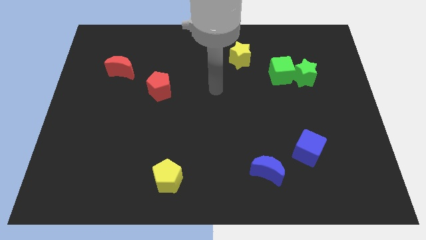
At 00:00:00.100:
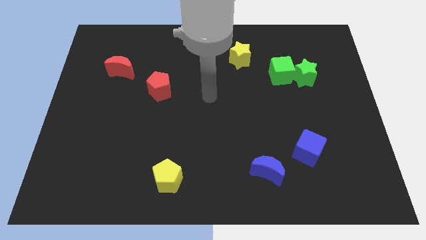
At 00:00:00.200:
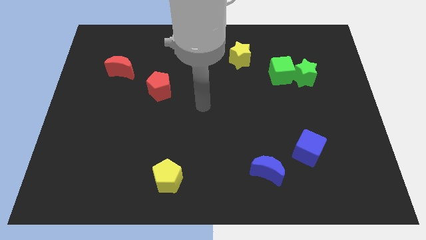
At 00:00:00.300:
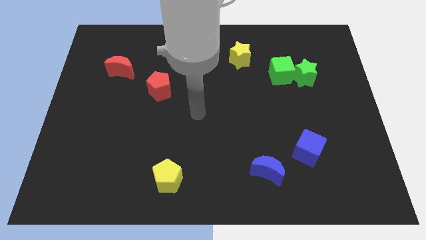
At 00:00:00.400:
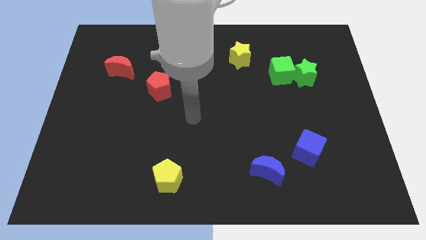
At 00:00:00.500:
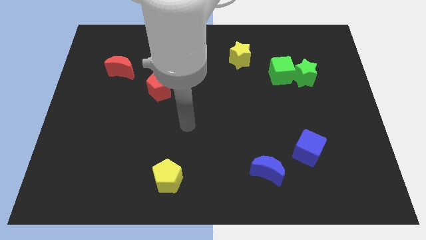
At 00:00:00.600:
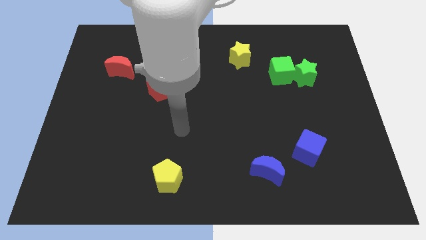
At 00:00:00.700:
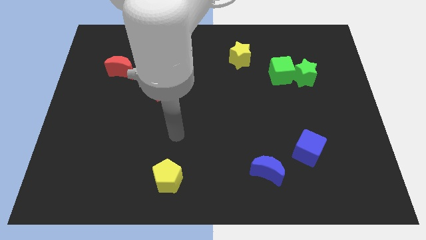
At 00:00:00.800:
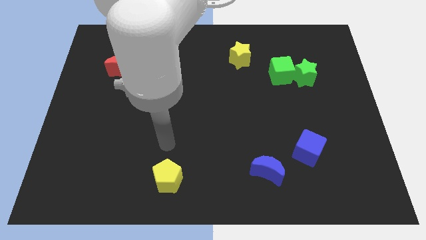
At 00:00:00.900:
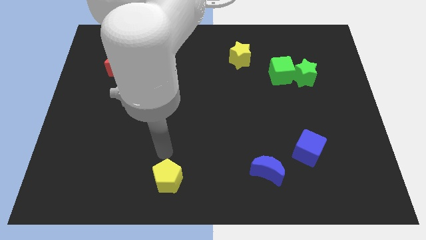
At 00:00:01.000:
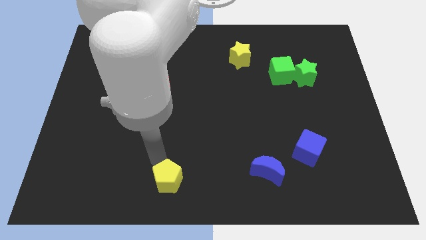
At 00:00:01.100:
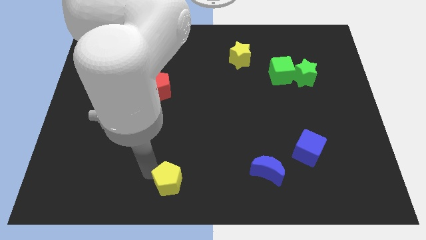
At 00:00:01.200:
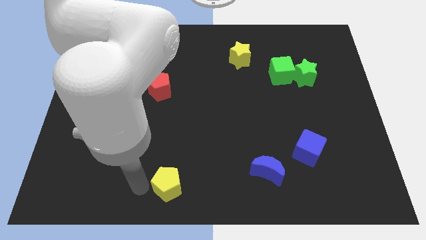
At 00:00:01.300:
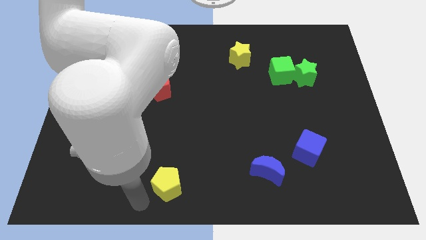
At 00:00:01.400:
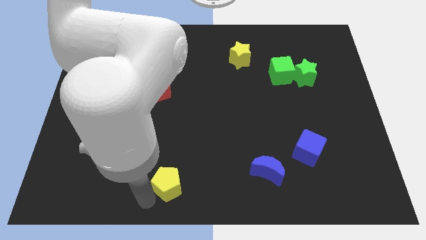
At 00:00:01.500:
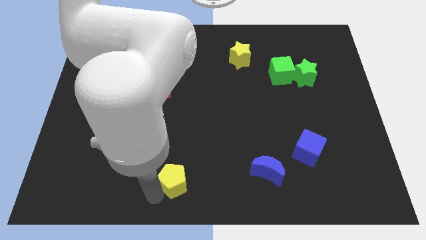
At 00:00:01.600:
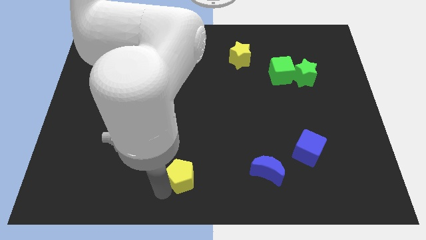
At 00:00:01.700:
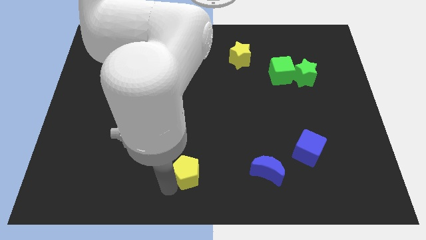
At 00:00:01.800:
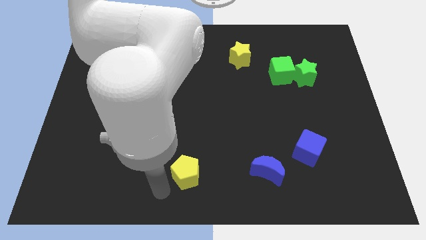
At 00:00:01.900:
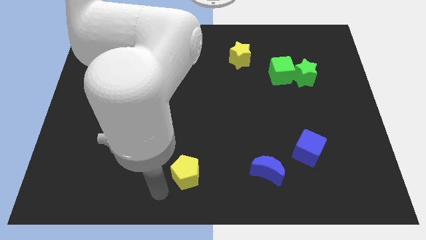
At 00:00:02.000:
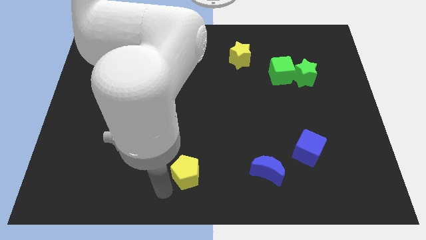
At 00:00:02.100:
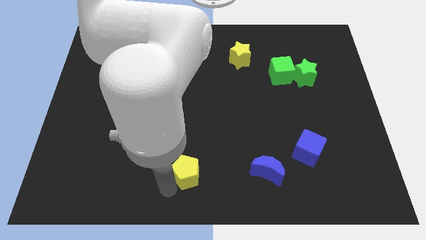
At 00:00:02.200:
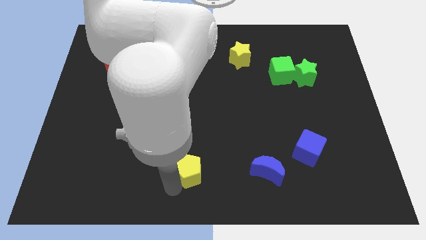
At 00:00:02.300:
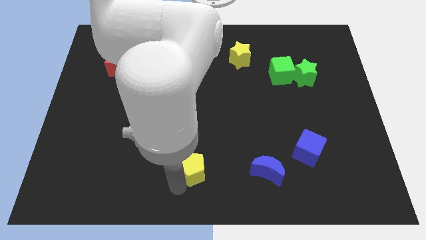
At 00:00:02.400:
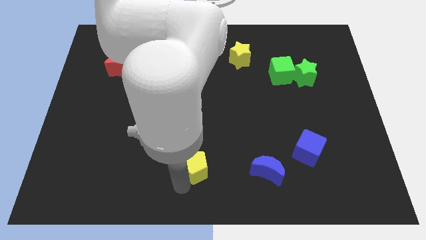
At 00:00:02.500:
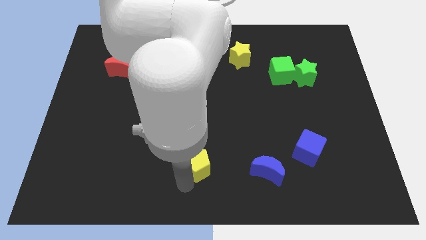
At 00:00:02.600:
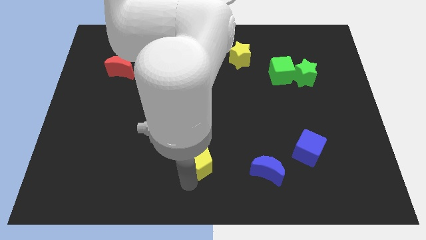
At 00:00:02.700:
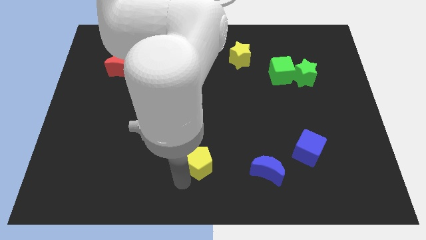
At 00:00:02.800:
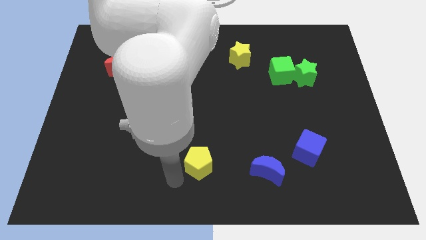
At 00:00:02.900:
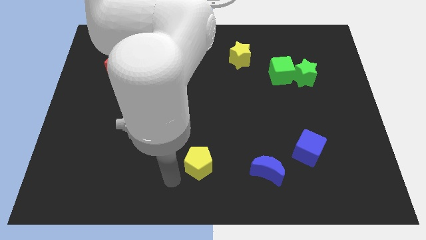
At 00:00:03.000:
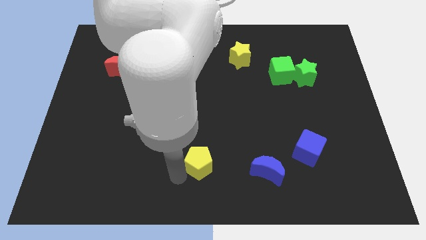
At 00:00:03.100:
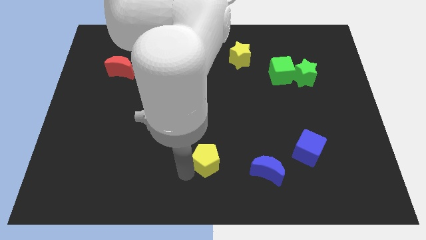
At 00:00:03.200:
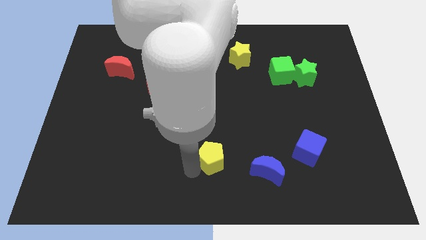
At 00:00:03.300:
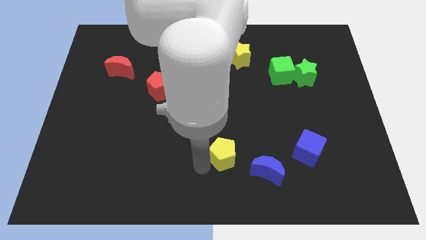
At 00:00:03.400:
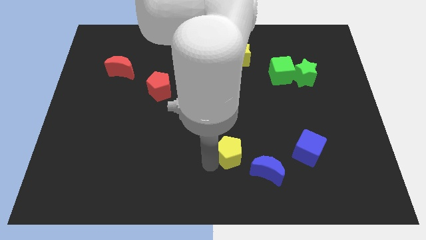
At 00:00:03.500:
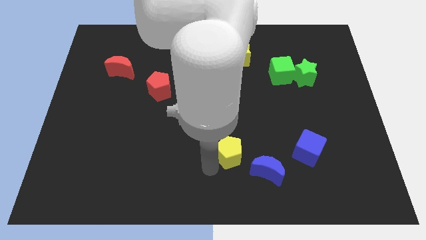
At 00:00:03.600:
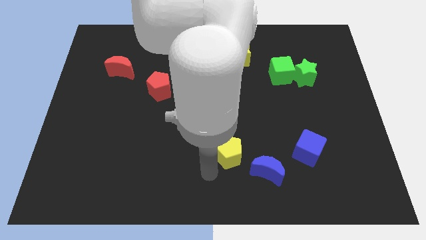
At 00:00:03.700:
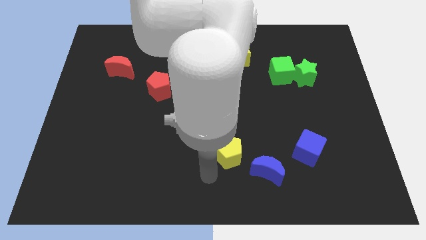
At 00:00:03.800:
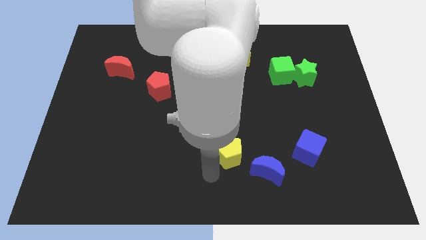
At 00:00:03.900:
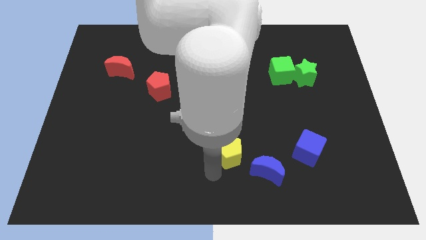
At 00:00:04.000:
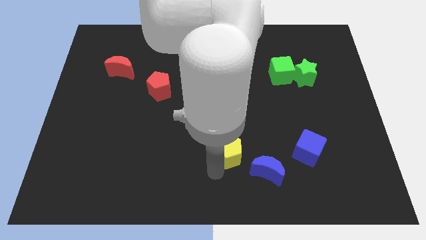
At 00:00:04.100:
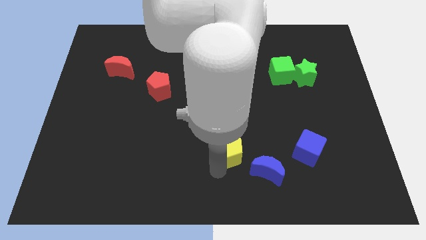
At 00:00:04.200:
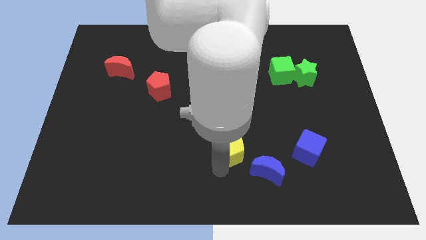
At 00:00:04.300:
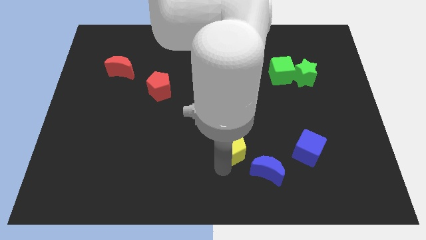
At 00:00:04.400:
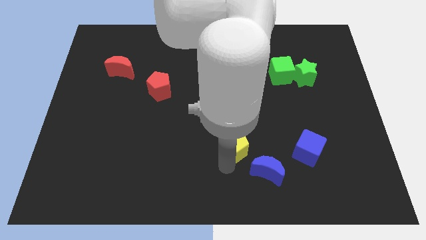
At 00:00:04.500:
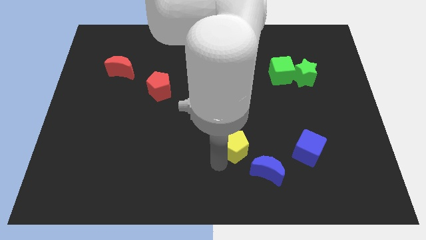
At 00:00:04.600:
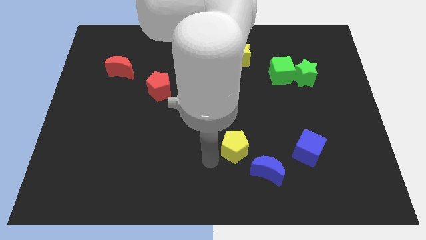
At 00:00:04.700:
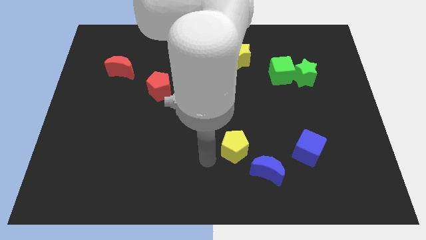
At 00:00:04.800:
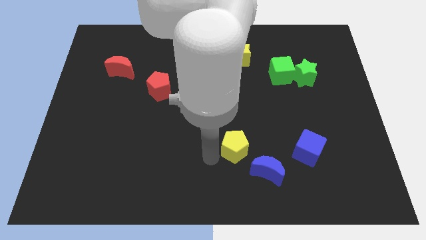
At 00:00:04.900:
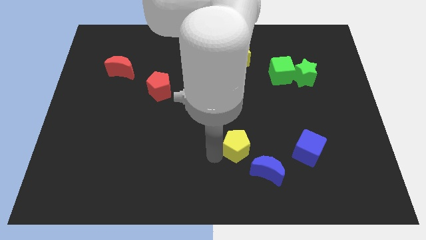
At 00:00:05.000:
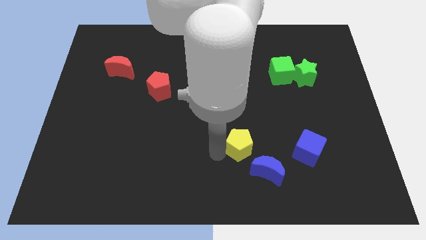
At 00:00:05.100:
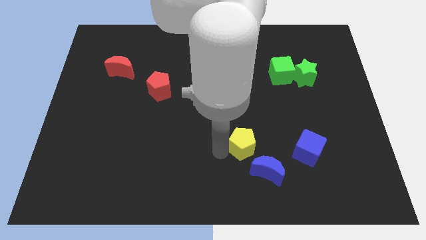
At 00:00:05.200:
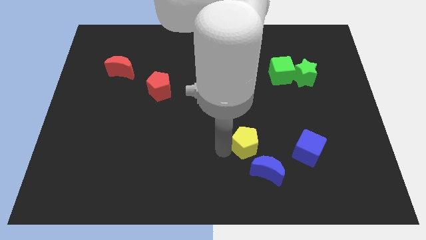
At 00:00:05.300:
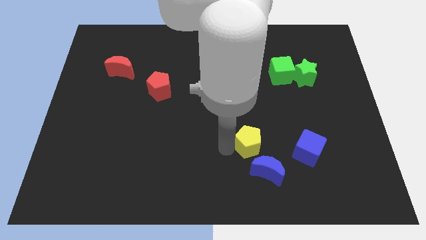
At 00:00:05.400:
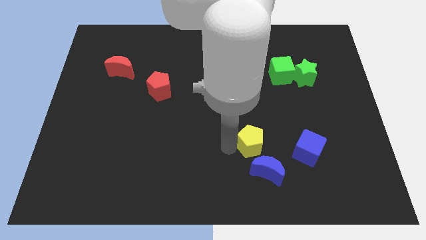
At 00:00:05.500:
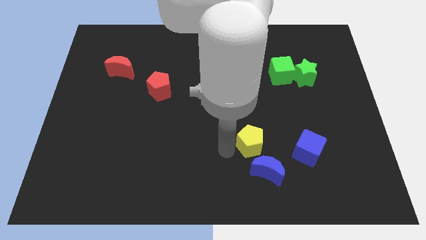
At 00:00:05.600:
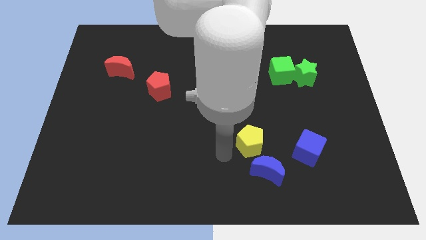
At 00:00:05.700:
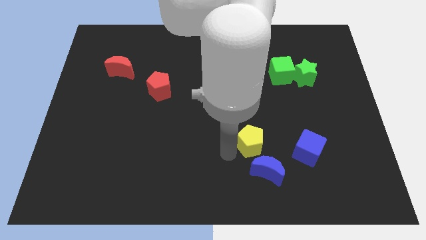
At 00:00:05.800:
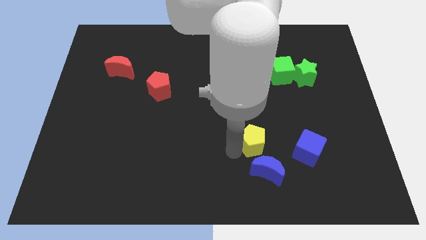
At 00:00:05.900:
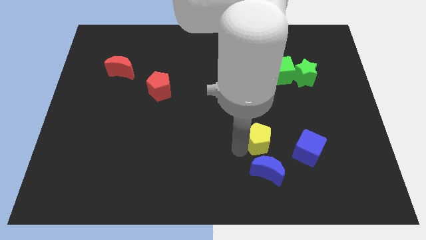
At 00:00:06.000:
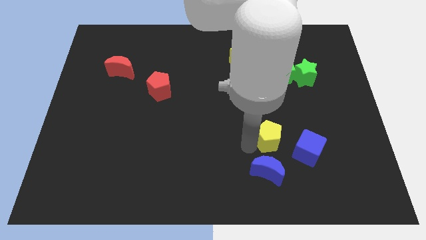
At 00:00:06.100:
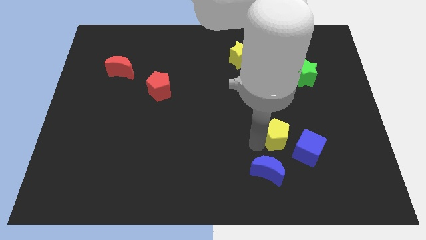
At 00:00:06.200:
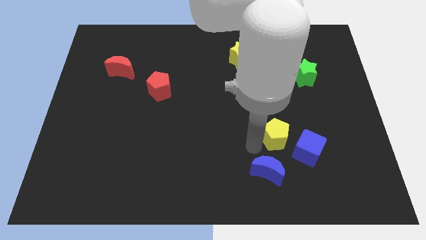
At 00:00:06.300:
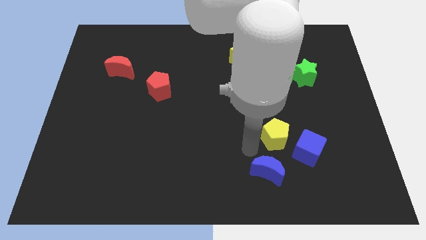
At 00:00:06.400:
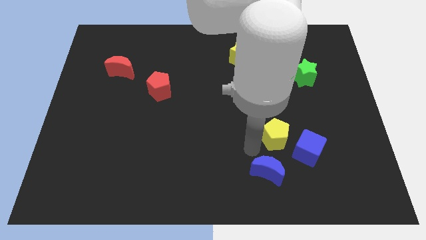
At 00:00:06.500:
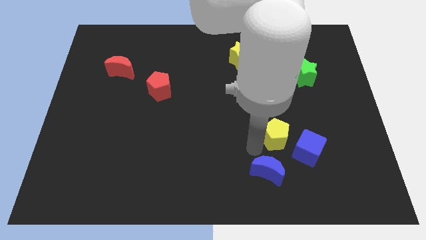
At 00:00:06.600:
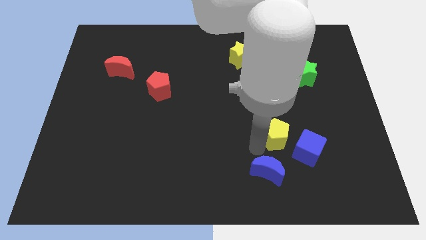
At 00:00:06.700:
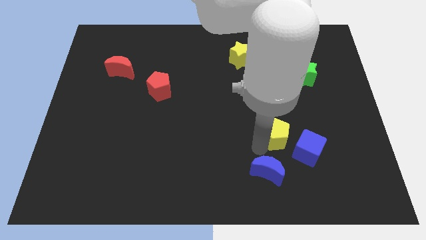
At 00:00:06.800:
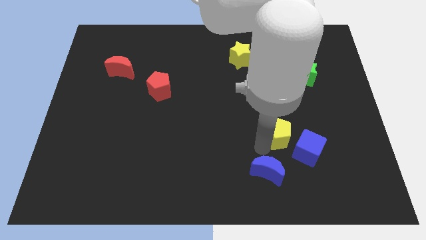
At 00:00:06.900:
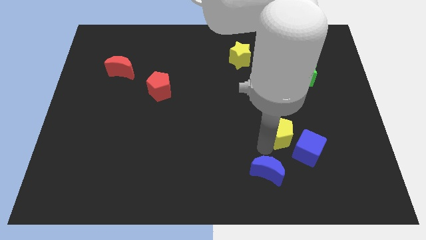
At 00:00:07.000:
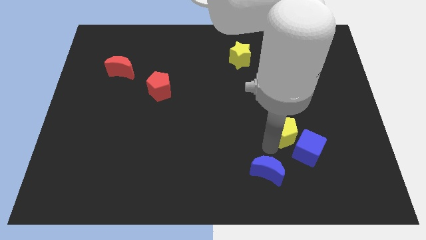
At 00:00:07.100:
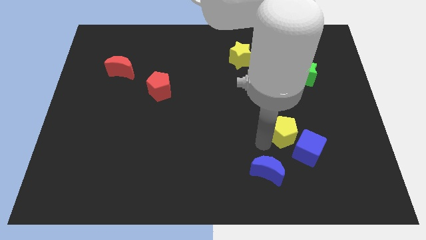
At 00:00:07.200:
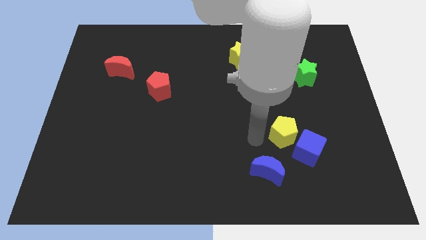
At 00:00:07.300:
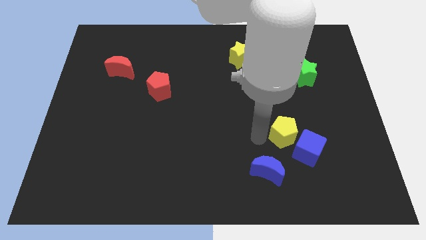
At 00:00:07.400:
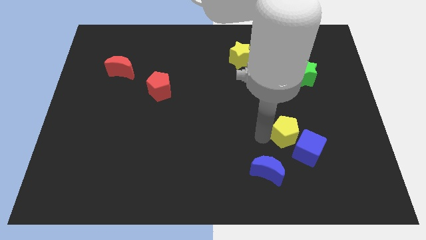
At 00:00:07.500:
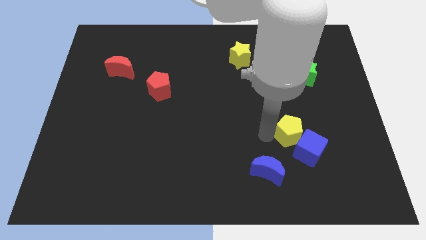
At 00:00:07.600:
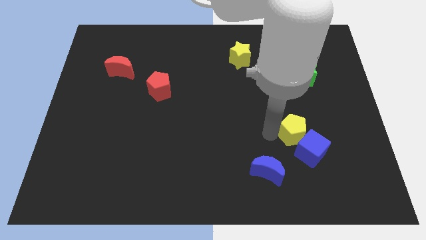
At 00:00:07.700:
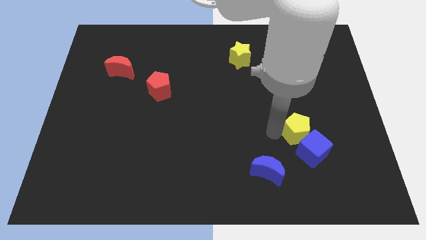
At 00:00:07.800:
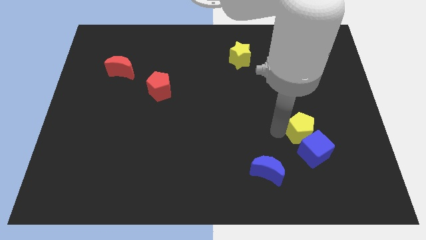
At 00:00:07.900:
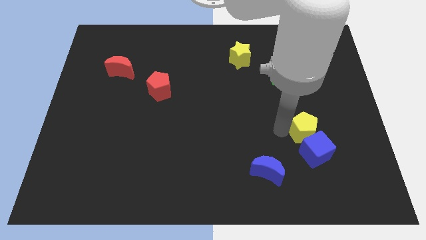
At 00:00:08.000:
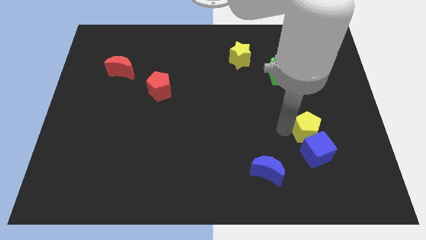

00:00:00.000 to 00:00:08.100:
move the yellow pentagon diagonally up and to the right of the blue cube
